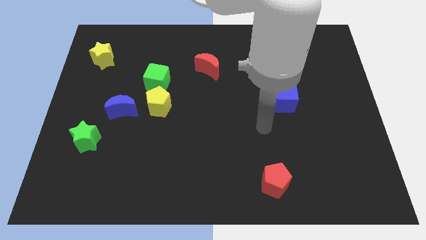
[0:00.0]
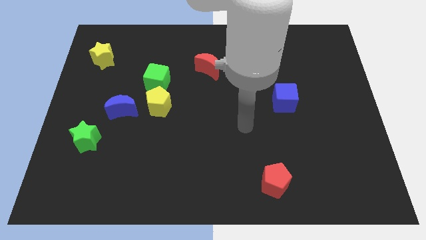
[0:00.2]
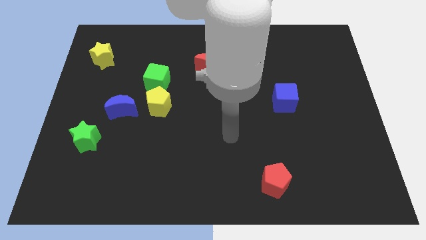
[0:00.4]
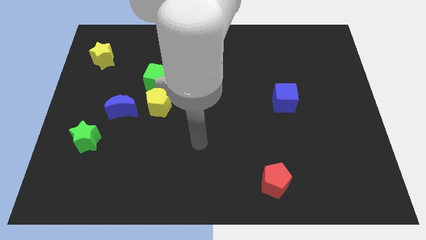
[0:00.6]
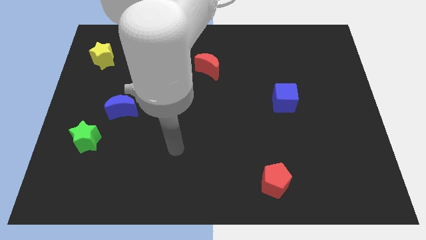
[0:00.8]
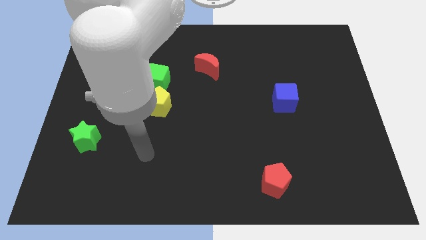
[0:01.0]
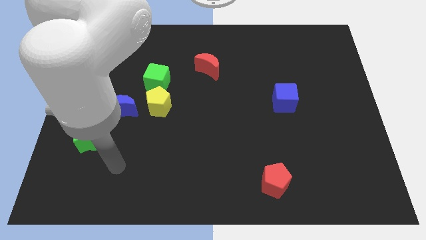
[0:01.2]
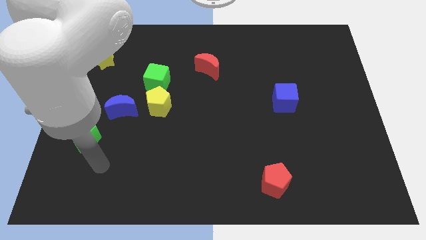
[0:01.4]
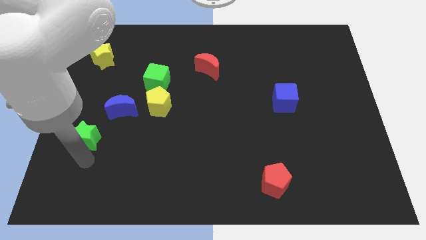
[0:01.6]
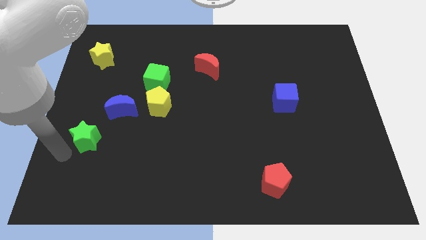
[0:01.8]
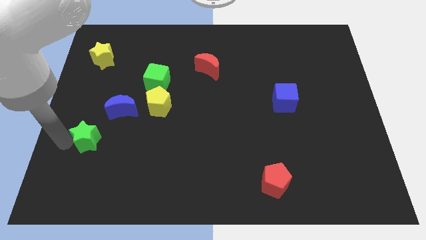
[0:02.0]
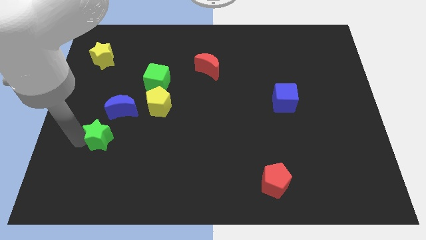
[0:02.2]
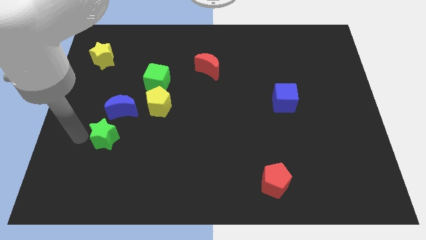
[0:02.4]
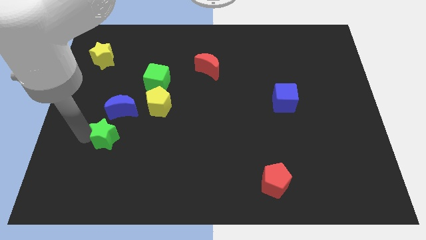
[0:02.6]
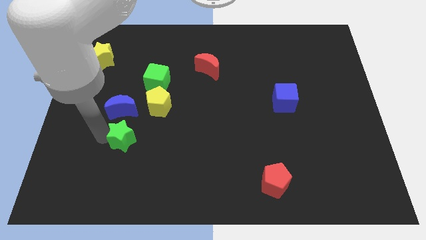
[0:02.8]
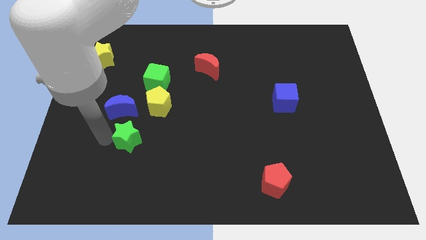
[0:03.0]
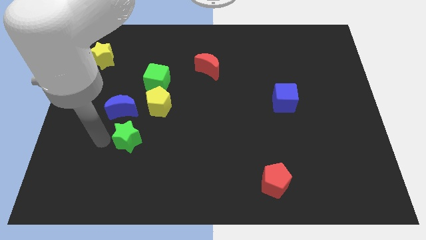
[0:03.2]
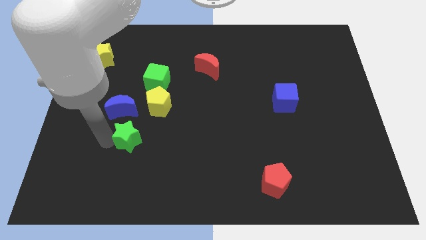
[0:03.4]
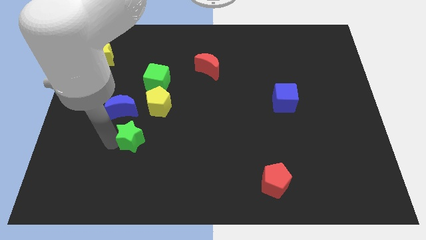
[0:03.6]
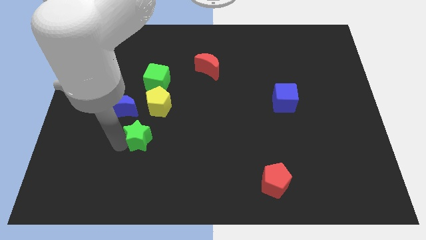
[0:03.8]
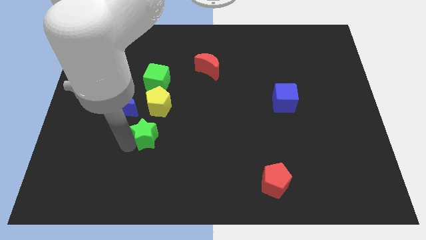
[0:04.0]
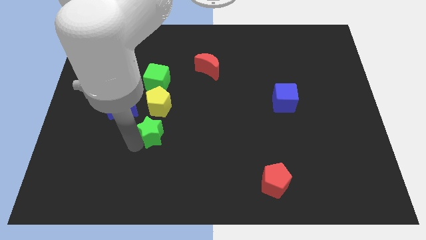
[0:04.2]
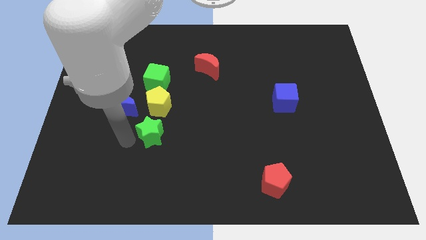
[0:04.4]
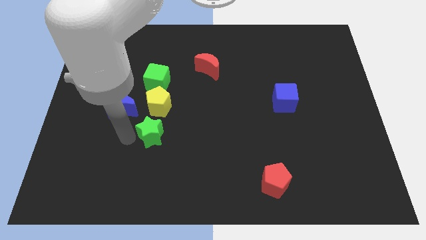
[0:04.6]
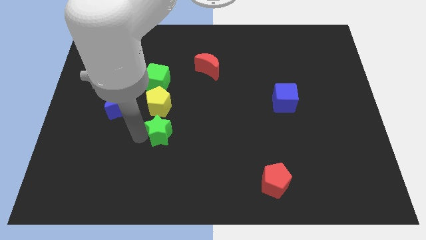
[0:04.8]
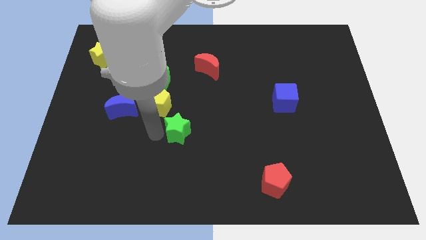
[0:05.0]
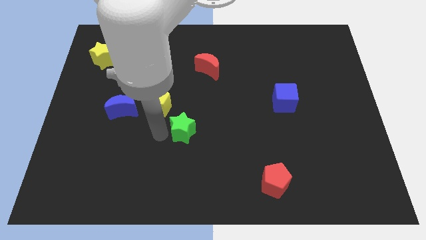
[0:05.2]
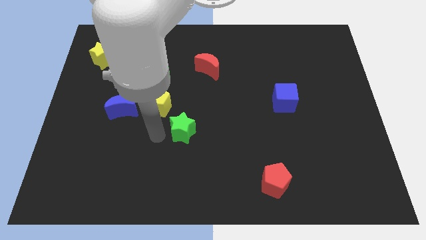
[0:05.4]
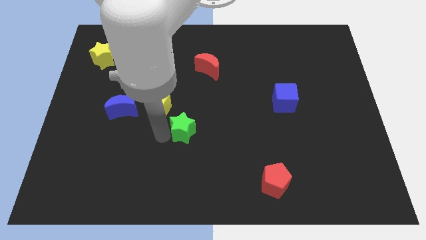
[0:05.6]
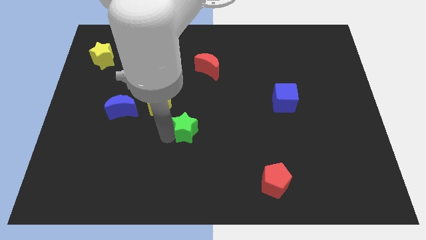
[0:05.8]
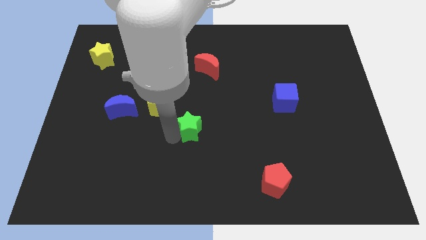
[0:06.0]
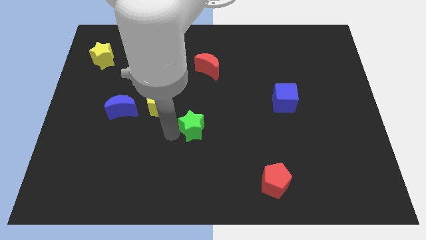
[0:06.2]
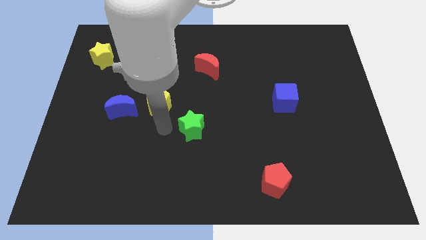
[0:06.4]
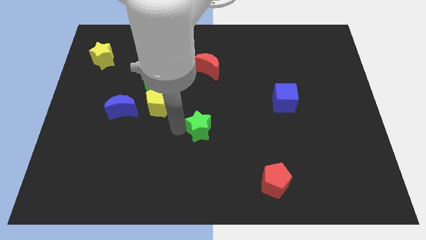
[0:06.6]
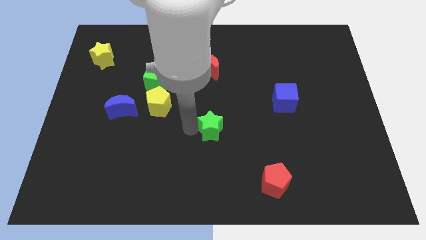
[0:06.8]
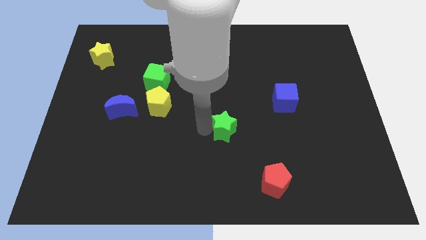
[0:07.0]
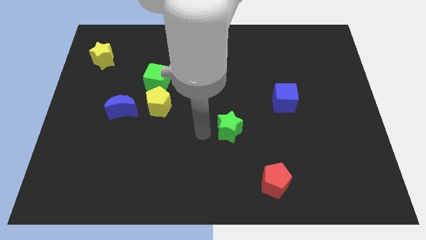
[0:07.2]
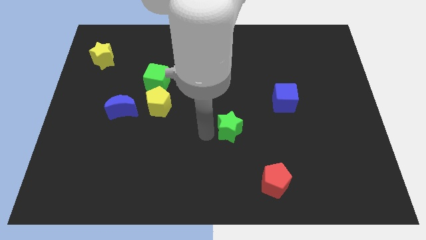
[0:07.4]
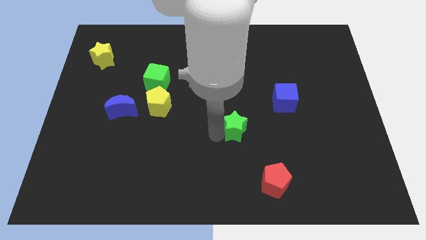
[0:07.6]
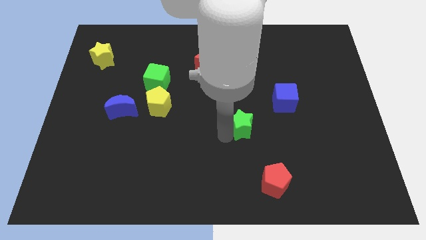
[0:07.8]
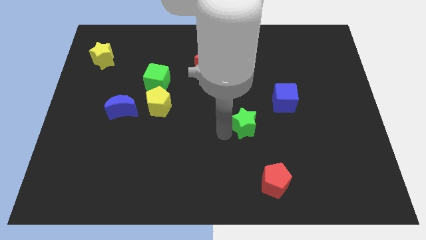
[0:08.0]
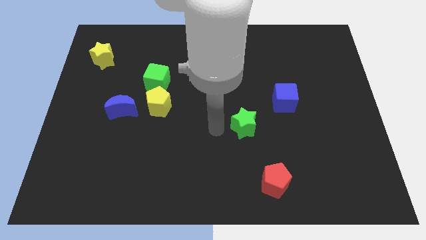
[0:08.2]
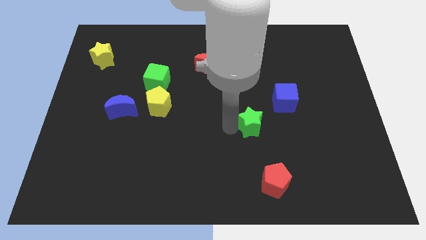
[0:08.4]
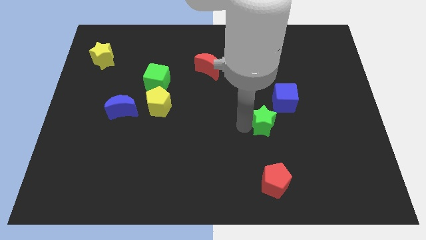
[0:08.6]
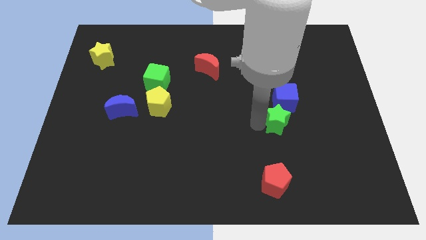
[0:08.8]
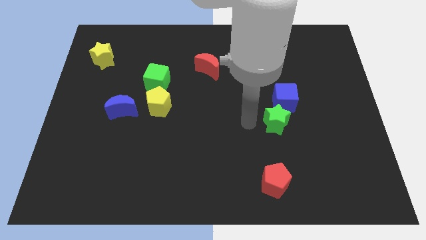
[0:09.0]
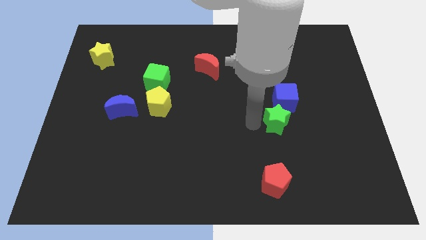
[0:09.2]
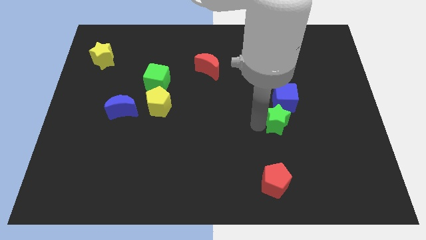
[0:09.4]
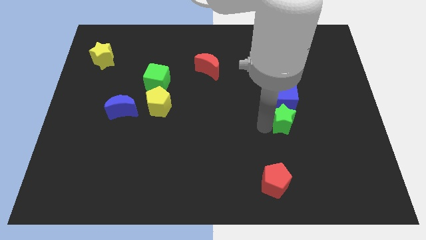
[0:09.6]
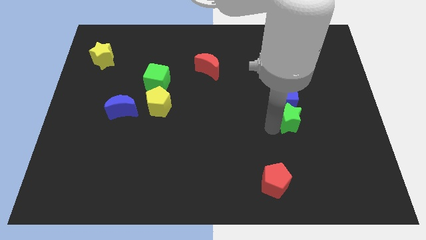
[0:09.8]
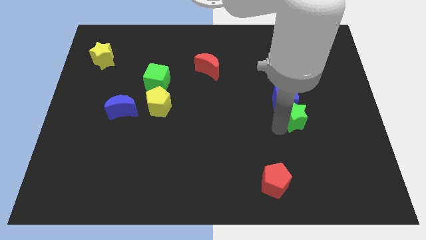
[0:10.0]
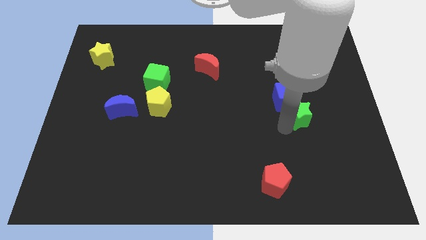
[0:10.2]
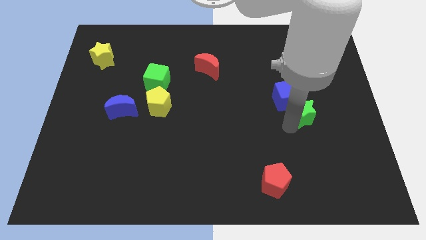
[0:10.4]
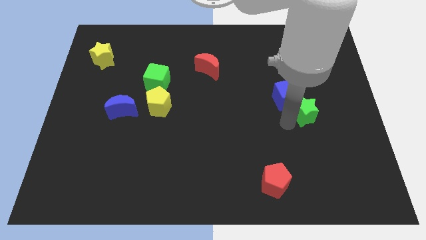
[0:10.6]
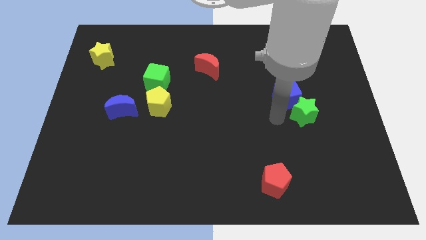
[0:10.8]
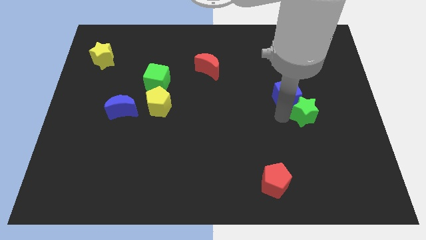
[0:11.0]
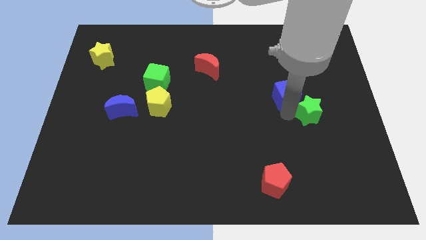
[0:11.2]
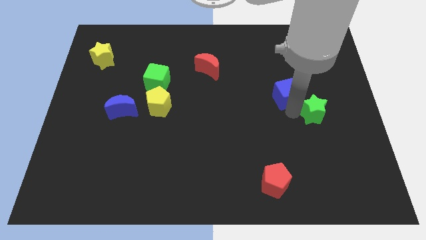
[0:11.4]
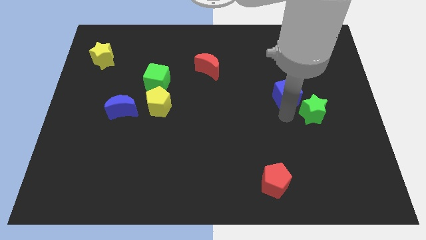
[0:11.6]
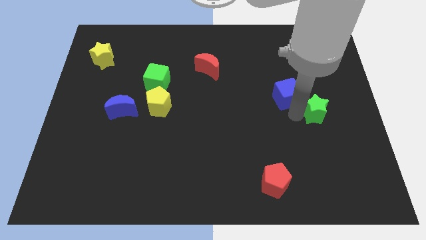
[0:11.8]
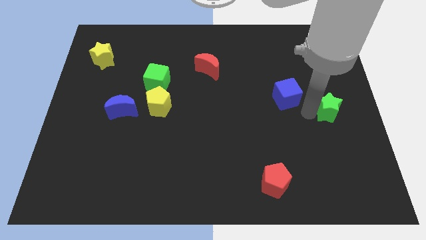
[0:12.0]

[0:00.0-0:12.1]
move the green star to the center right
